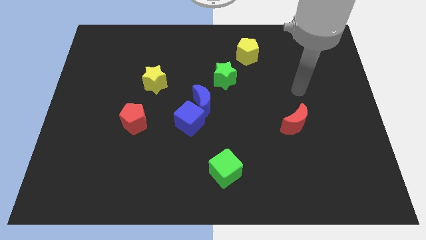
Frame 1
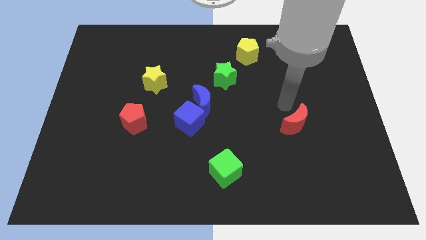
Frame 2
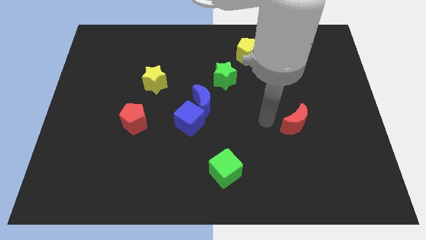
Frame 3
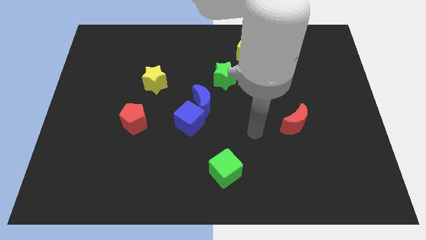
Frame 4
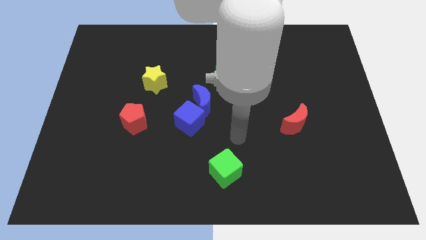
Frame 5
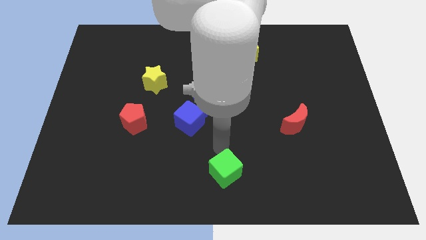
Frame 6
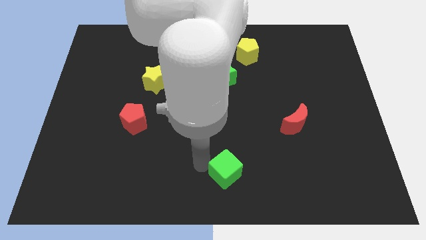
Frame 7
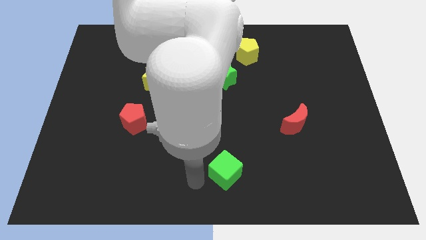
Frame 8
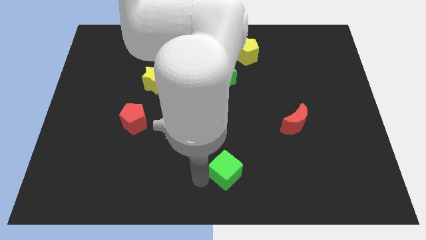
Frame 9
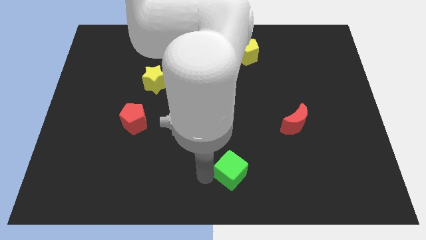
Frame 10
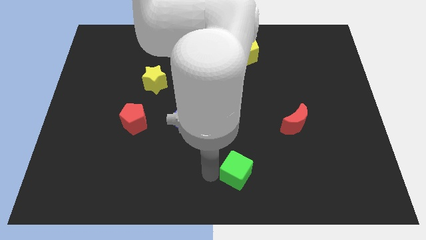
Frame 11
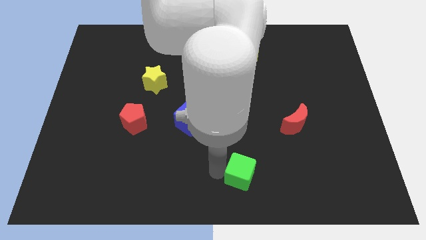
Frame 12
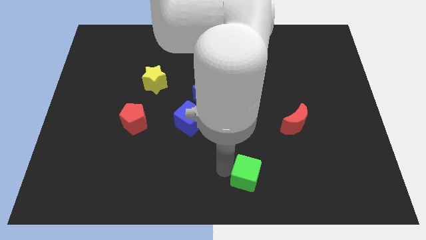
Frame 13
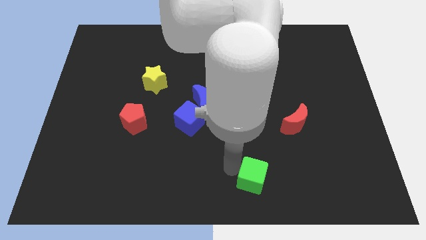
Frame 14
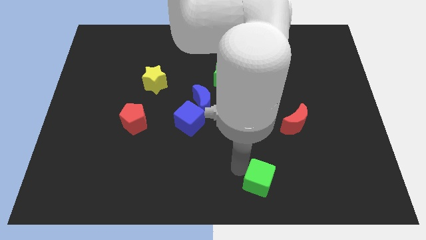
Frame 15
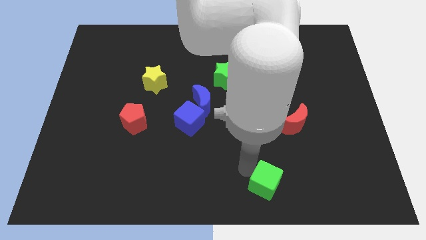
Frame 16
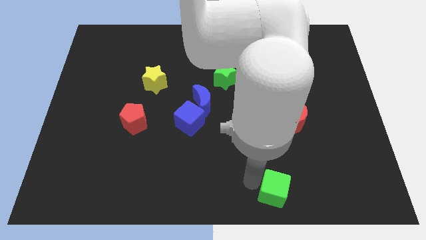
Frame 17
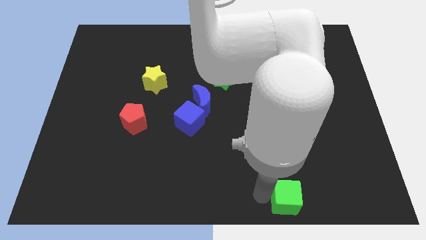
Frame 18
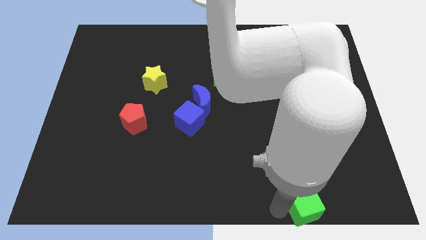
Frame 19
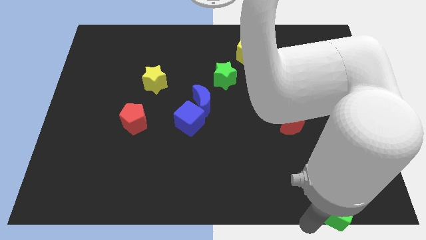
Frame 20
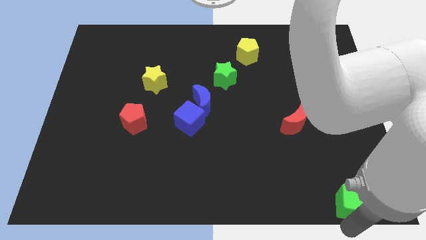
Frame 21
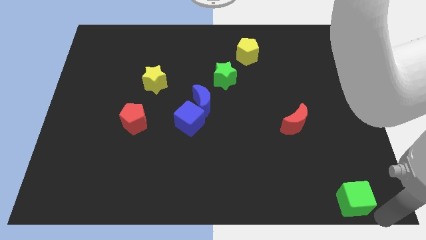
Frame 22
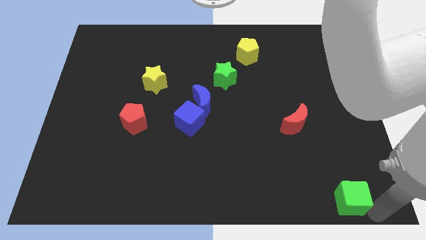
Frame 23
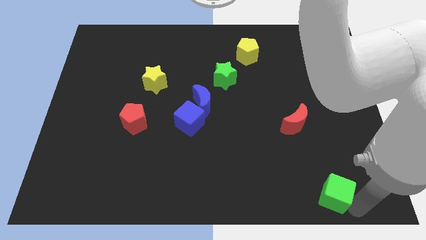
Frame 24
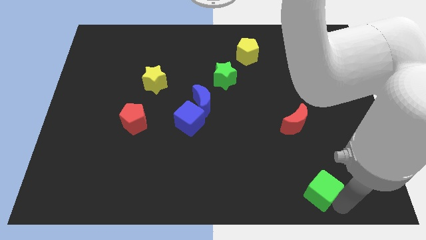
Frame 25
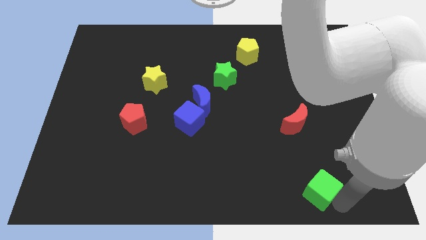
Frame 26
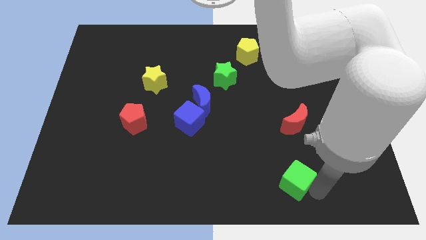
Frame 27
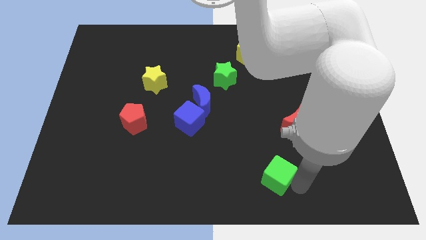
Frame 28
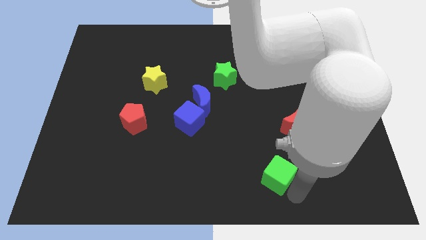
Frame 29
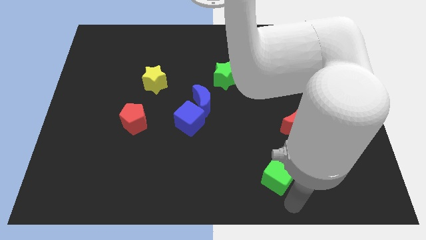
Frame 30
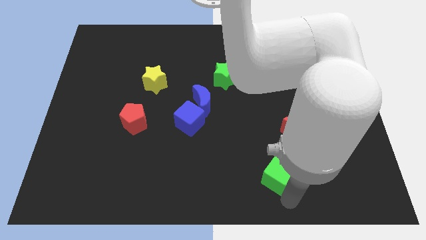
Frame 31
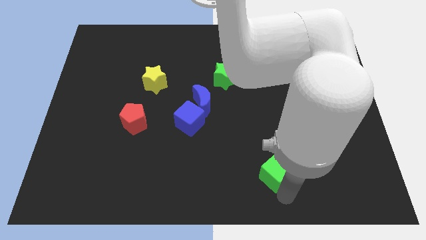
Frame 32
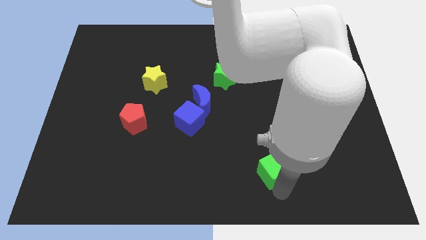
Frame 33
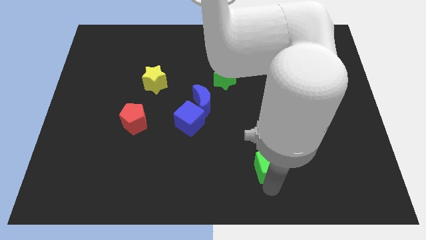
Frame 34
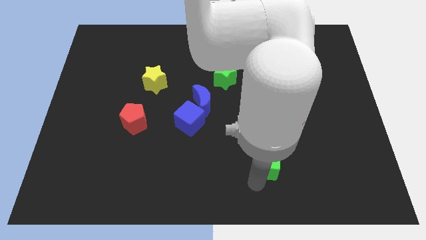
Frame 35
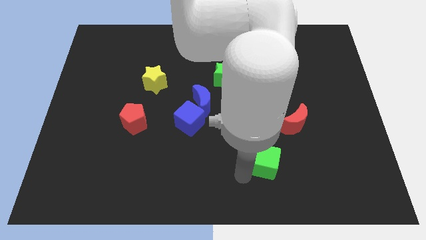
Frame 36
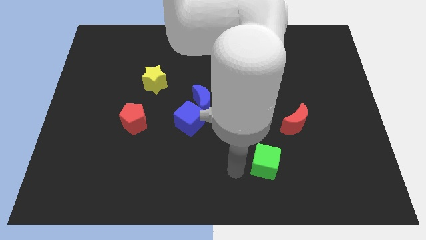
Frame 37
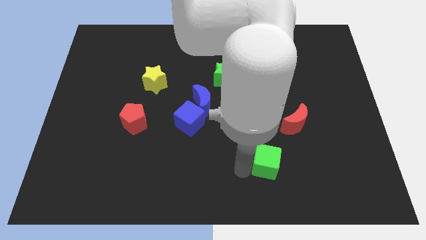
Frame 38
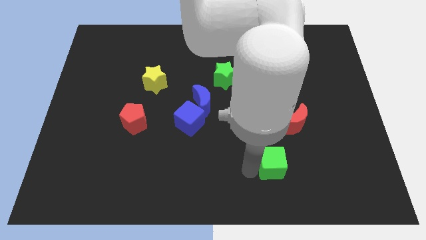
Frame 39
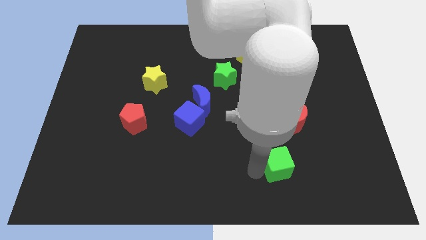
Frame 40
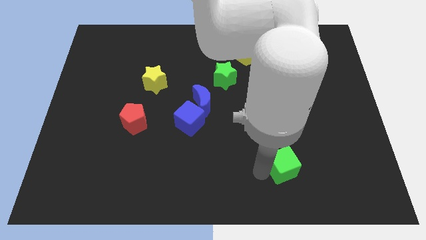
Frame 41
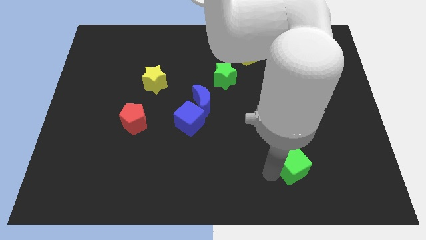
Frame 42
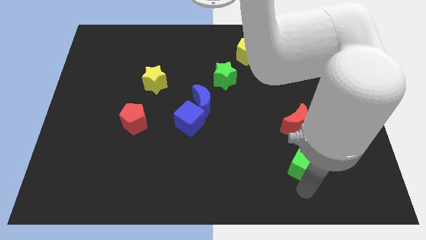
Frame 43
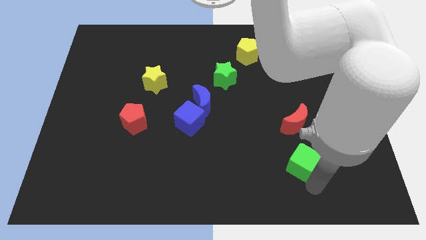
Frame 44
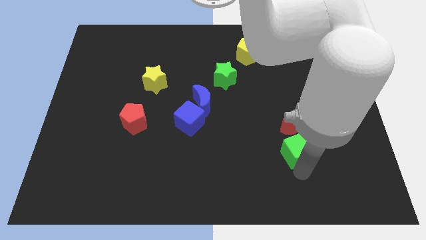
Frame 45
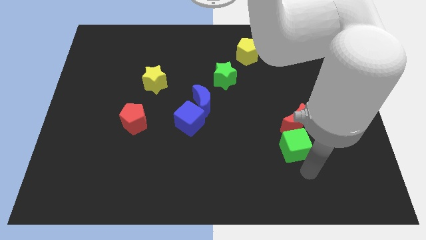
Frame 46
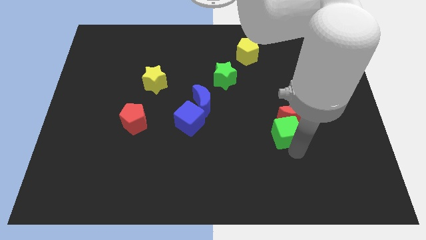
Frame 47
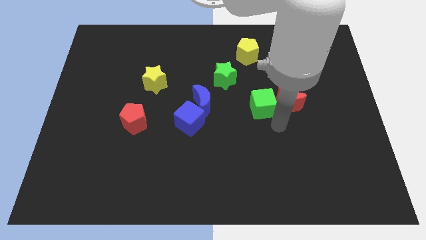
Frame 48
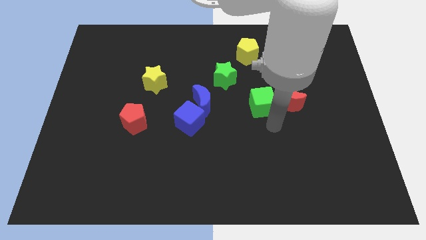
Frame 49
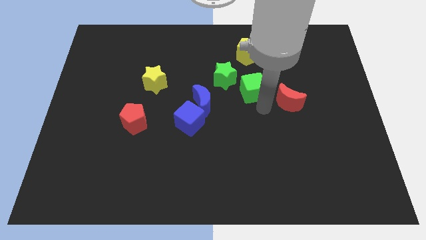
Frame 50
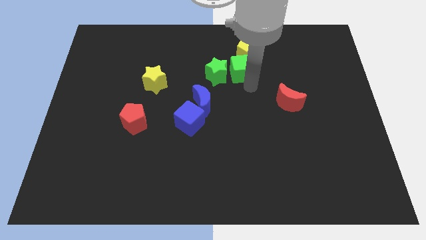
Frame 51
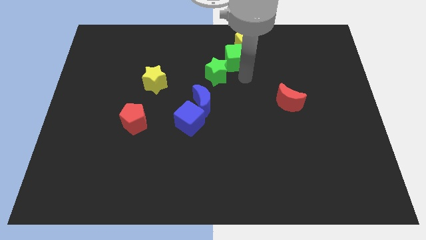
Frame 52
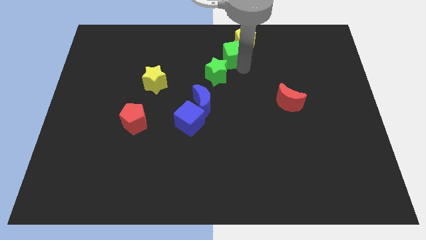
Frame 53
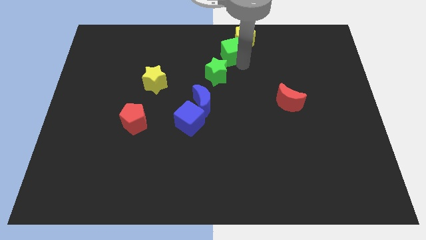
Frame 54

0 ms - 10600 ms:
put the green cube to the top side

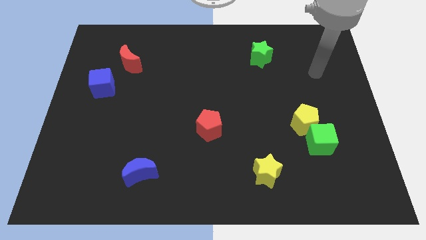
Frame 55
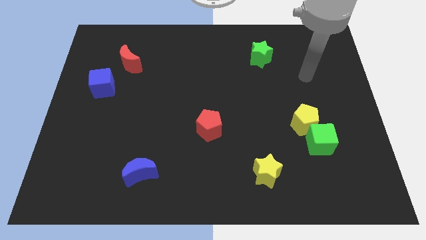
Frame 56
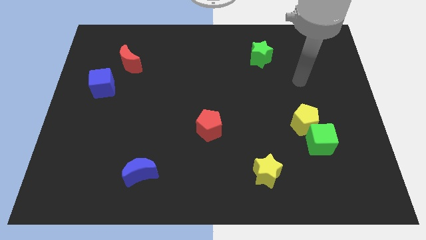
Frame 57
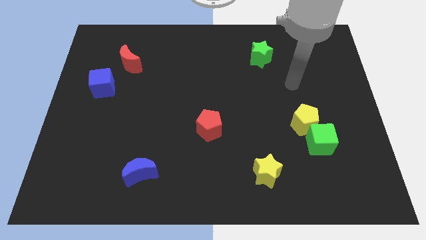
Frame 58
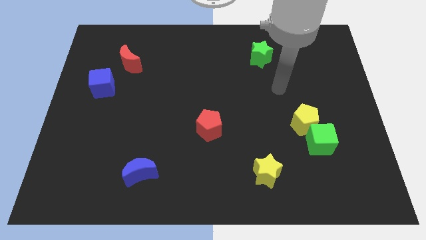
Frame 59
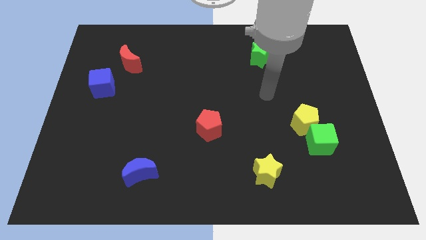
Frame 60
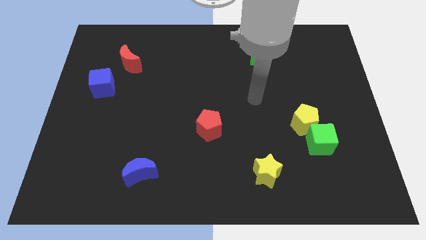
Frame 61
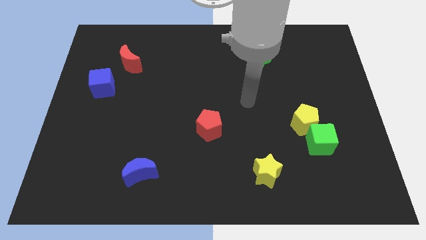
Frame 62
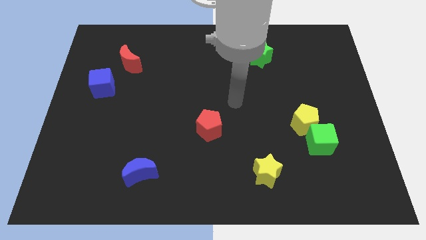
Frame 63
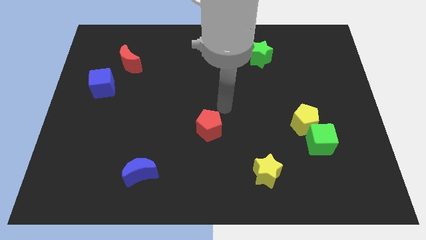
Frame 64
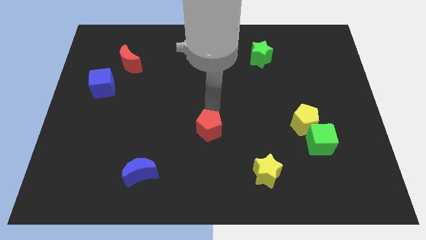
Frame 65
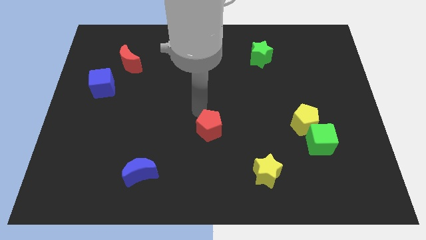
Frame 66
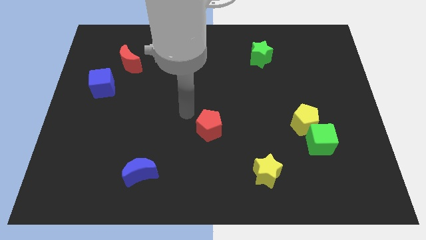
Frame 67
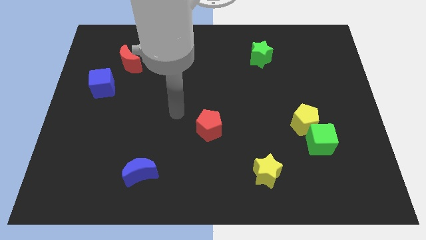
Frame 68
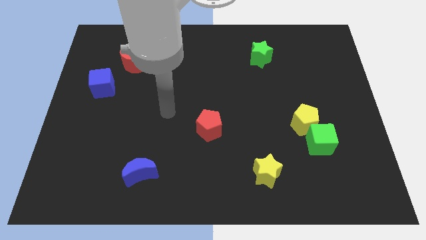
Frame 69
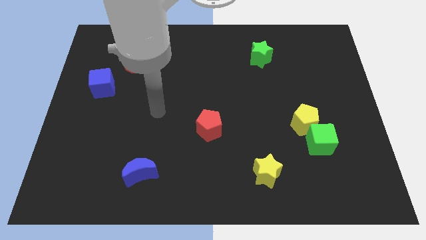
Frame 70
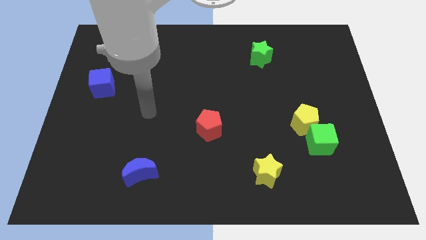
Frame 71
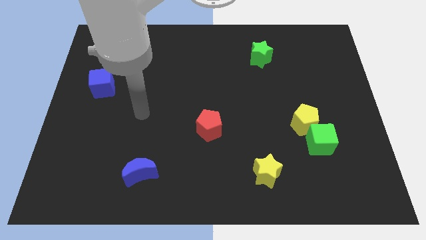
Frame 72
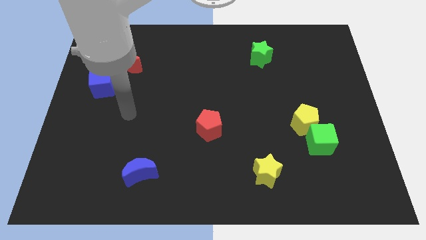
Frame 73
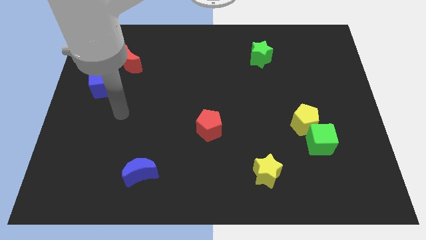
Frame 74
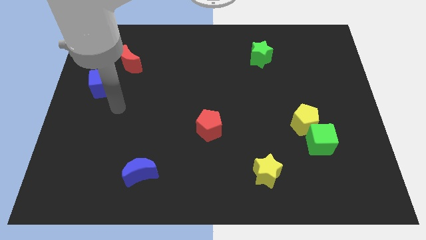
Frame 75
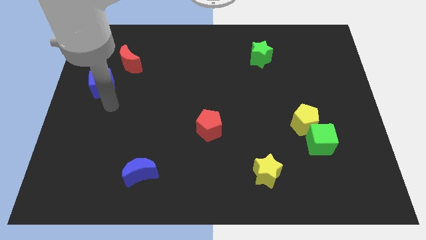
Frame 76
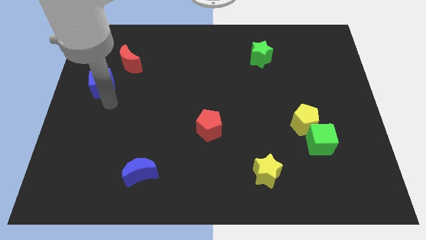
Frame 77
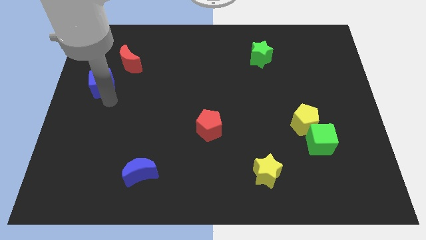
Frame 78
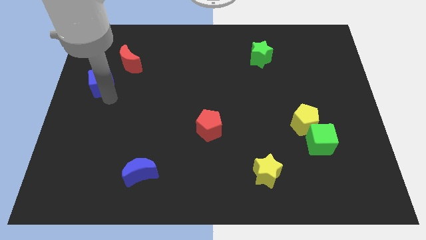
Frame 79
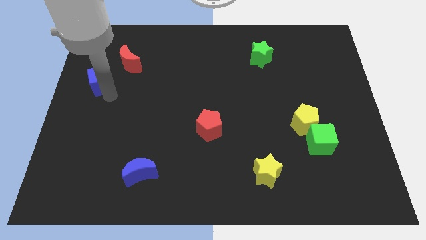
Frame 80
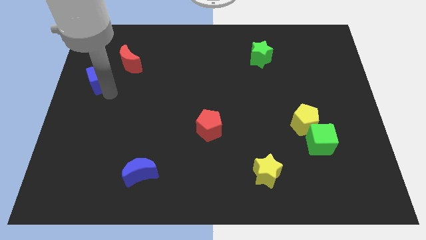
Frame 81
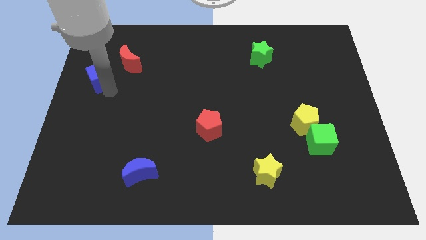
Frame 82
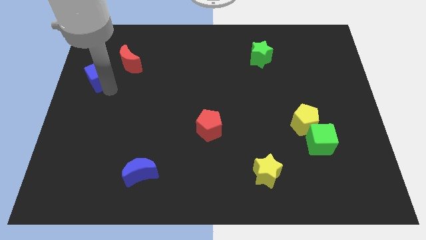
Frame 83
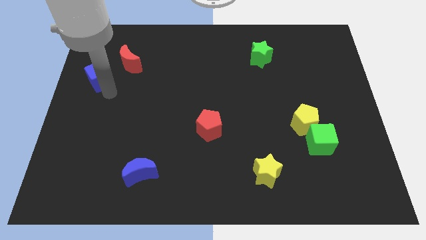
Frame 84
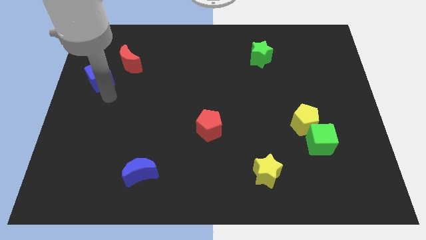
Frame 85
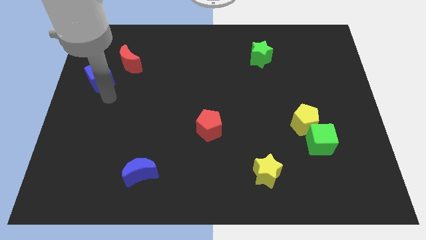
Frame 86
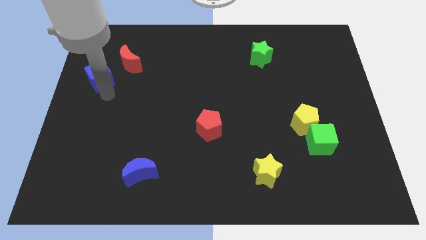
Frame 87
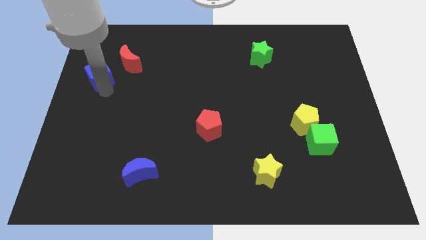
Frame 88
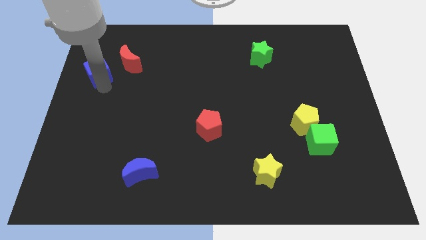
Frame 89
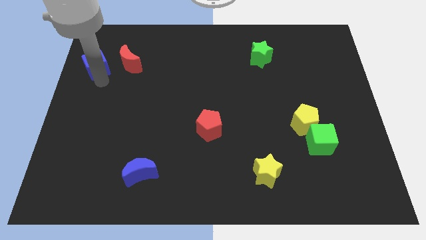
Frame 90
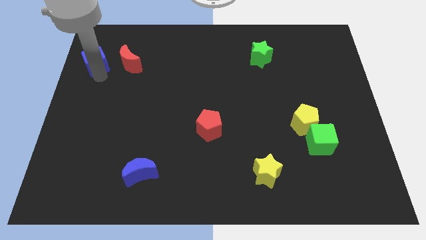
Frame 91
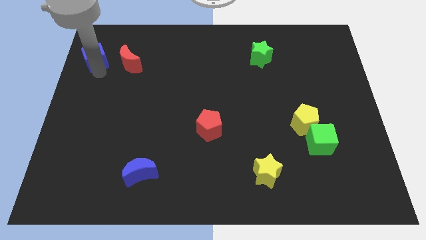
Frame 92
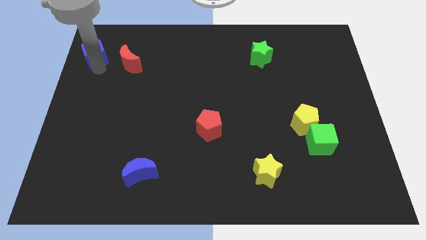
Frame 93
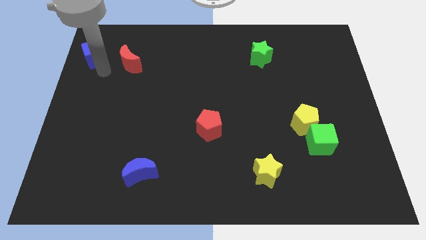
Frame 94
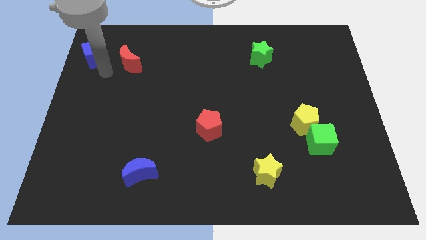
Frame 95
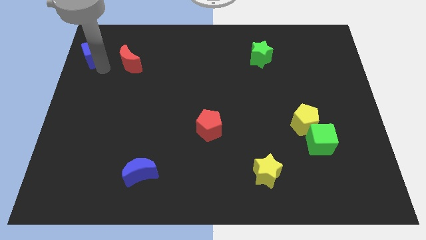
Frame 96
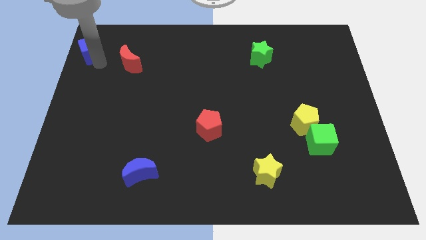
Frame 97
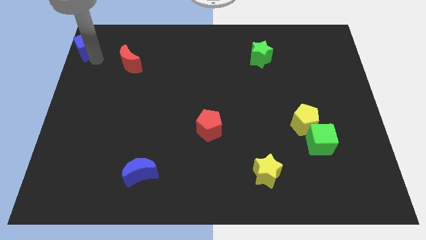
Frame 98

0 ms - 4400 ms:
slide the blue cube to the top left of the board
